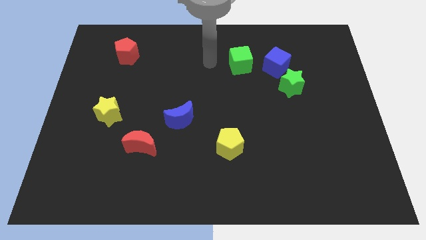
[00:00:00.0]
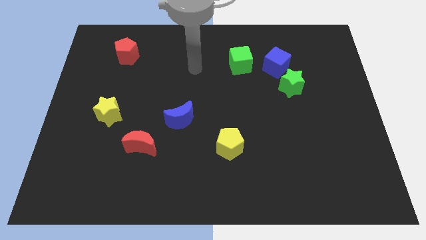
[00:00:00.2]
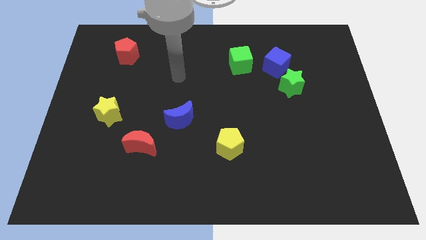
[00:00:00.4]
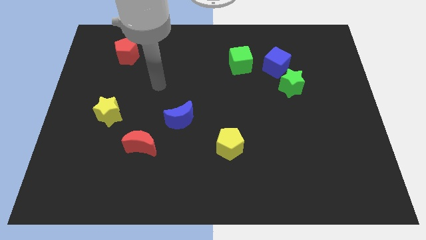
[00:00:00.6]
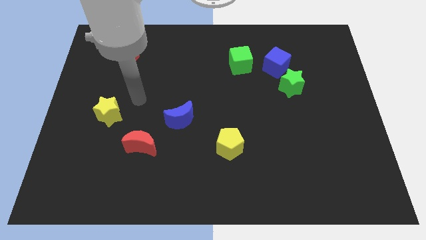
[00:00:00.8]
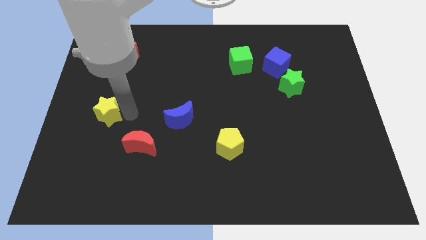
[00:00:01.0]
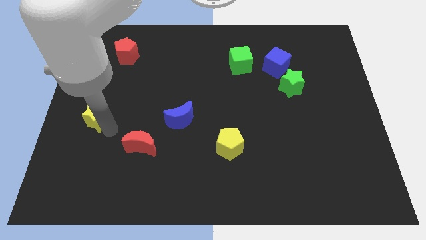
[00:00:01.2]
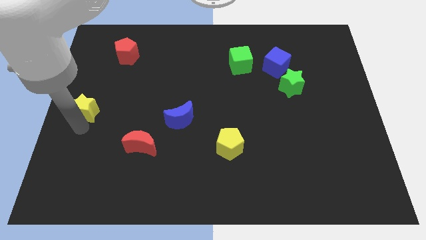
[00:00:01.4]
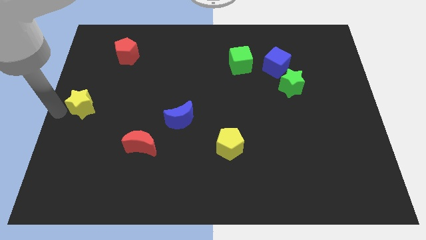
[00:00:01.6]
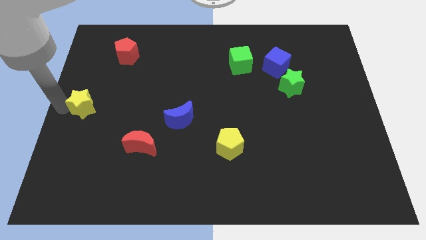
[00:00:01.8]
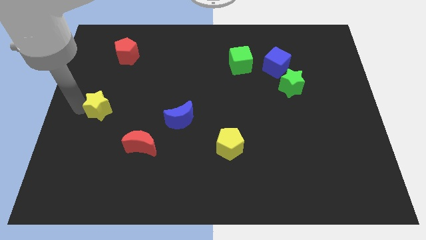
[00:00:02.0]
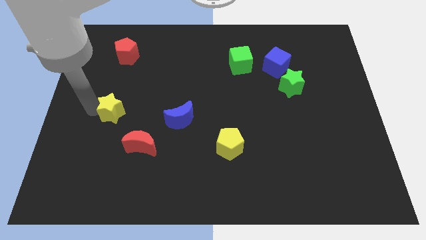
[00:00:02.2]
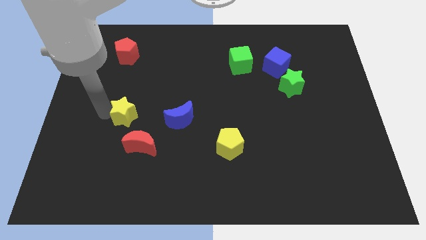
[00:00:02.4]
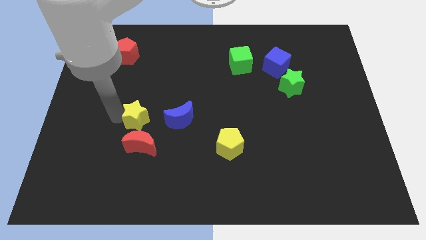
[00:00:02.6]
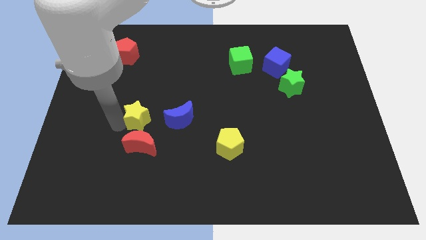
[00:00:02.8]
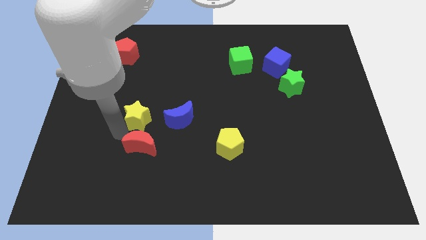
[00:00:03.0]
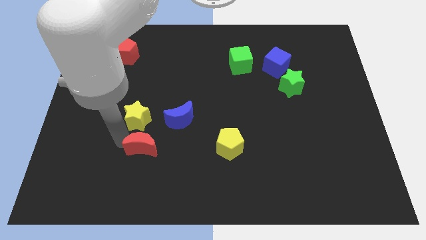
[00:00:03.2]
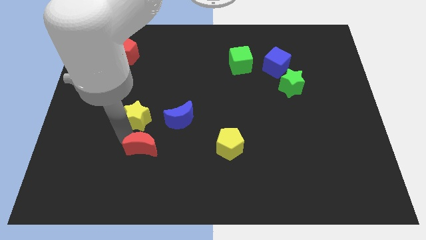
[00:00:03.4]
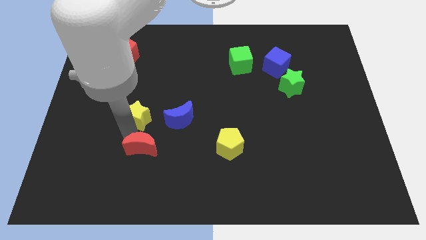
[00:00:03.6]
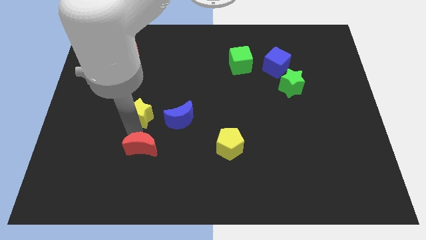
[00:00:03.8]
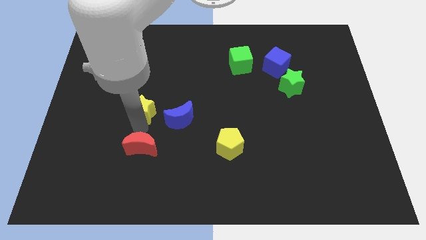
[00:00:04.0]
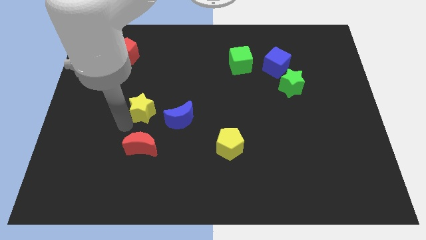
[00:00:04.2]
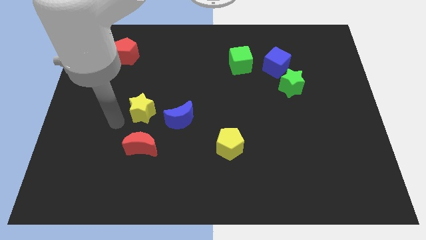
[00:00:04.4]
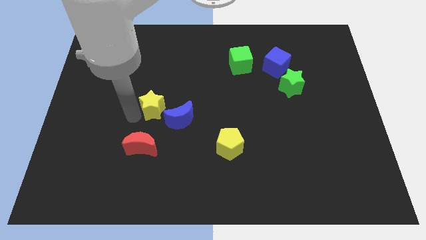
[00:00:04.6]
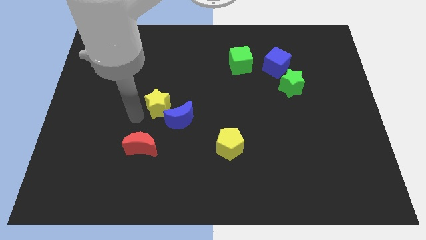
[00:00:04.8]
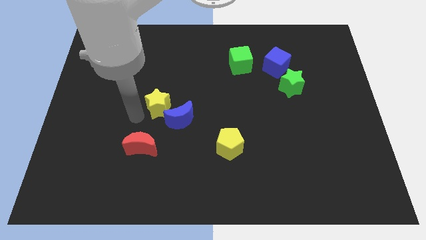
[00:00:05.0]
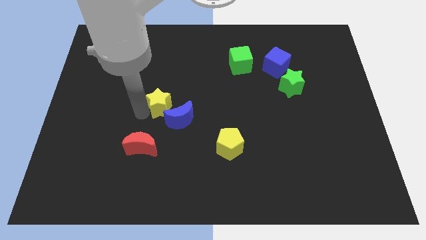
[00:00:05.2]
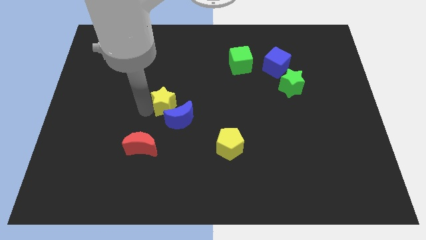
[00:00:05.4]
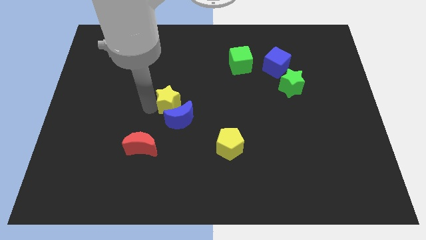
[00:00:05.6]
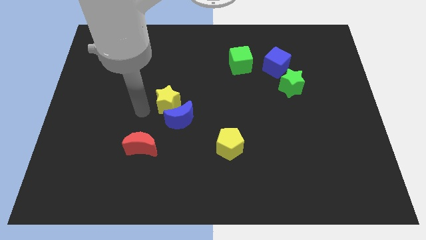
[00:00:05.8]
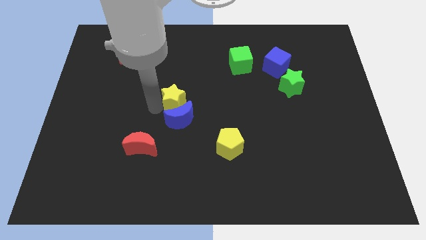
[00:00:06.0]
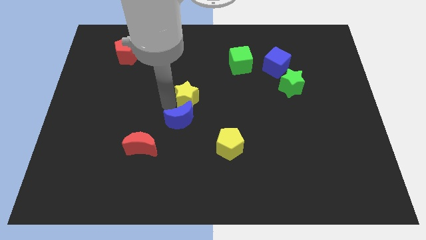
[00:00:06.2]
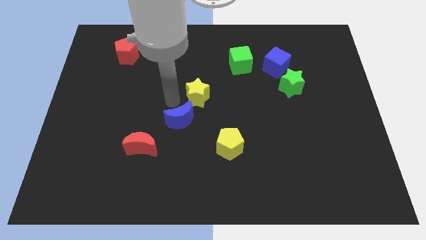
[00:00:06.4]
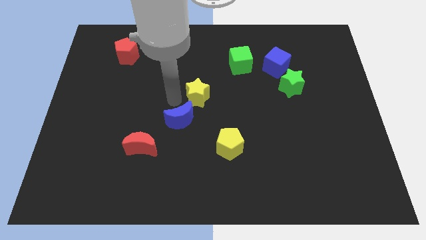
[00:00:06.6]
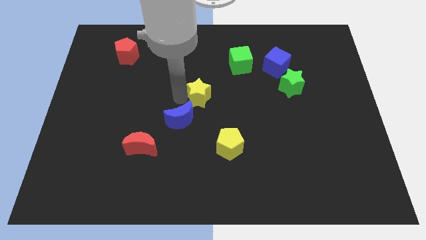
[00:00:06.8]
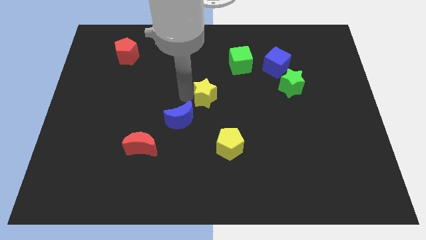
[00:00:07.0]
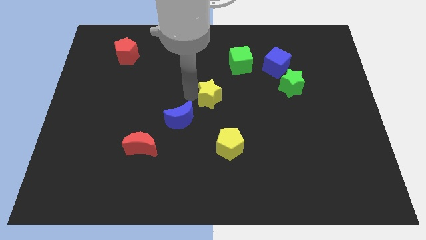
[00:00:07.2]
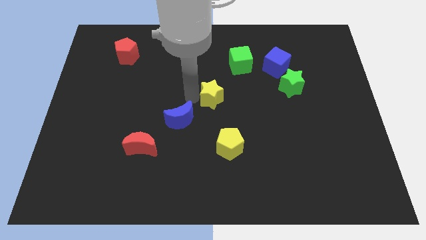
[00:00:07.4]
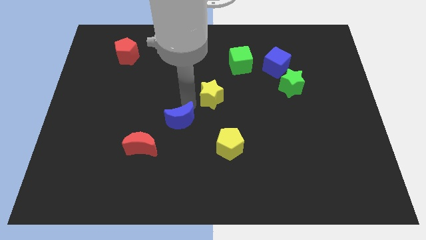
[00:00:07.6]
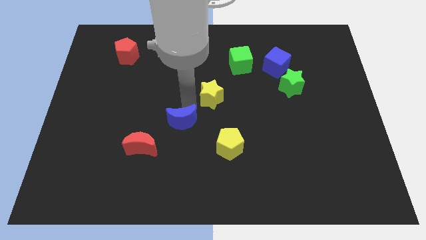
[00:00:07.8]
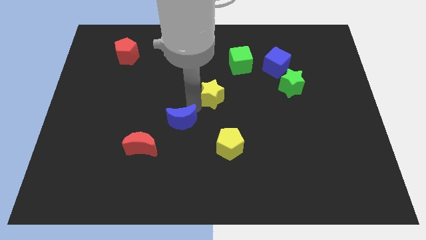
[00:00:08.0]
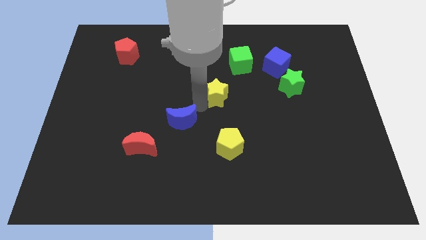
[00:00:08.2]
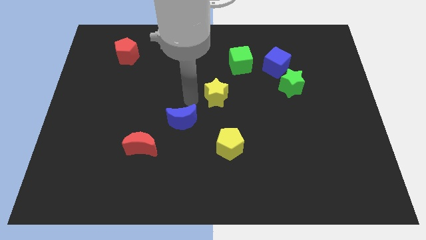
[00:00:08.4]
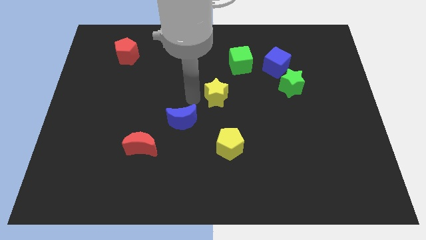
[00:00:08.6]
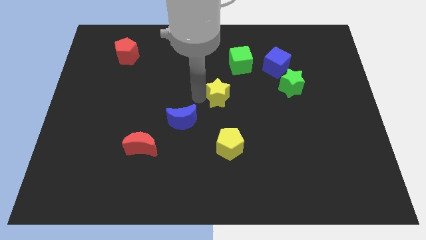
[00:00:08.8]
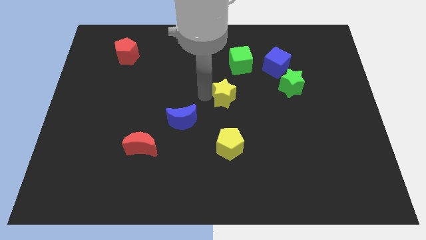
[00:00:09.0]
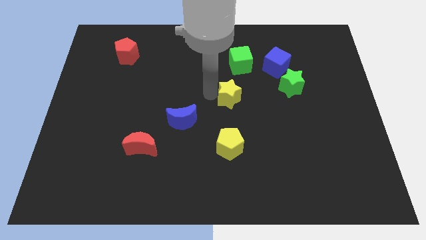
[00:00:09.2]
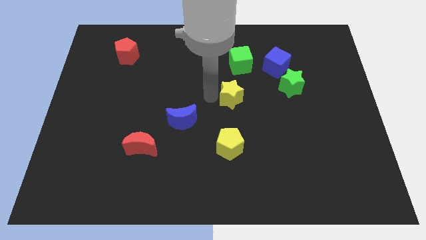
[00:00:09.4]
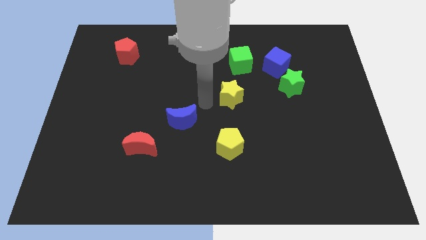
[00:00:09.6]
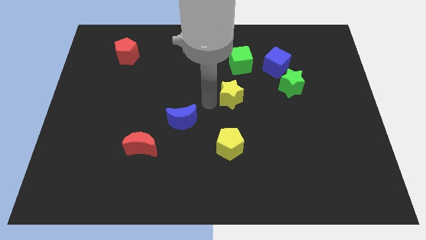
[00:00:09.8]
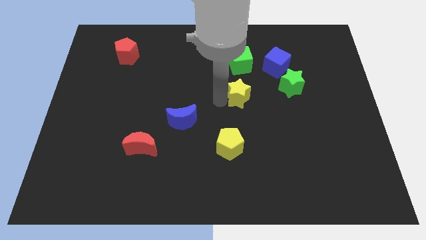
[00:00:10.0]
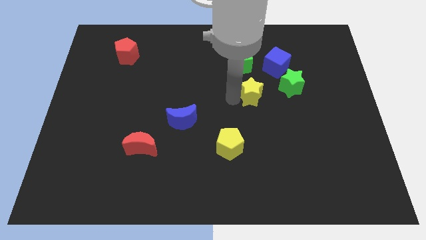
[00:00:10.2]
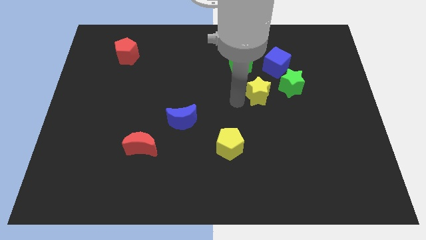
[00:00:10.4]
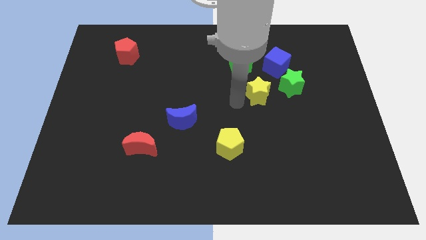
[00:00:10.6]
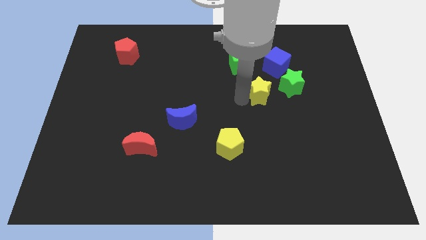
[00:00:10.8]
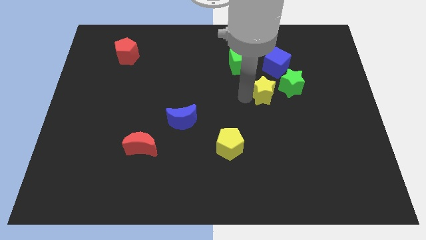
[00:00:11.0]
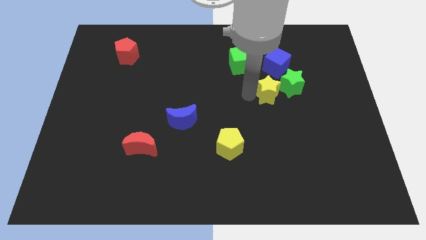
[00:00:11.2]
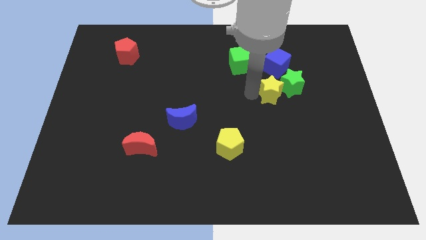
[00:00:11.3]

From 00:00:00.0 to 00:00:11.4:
move the yellow star towards the green star
